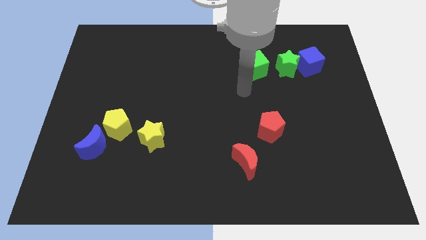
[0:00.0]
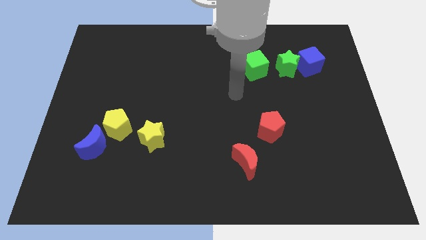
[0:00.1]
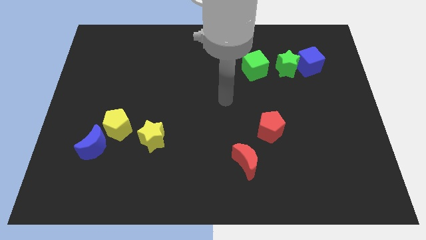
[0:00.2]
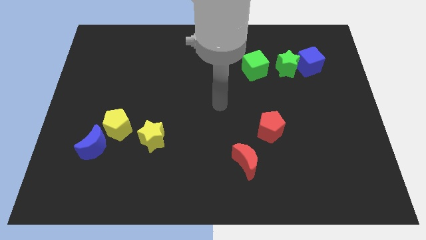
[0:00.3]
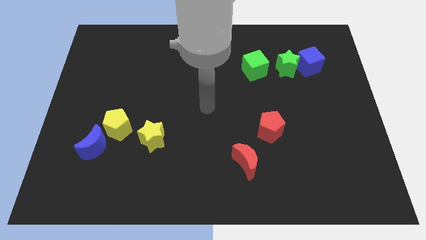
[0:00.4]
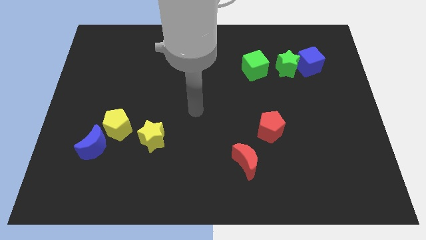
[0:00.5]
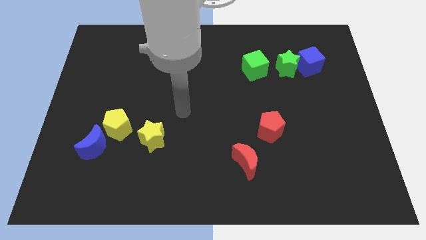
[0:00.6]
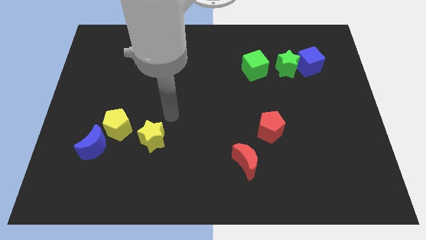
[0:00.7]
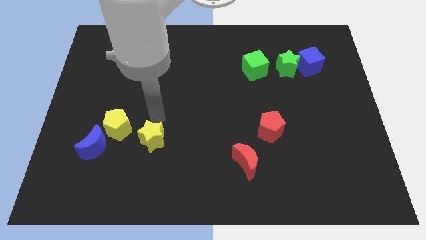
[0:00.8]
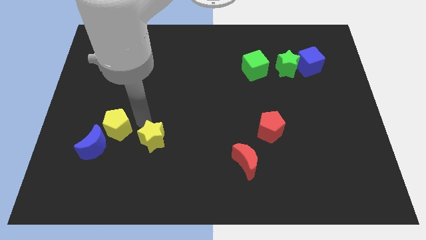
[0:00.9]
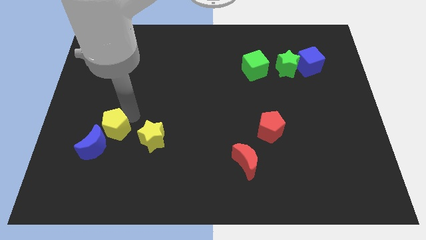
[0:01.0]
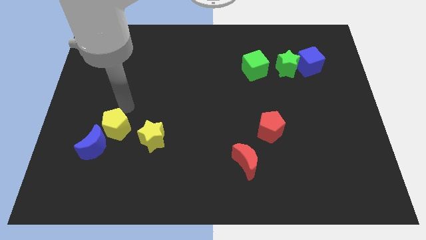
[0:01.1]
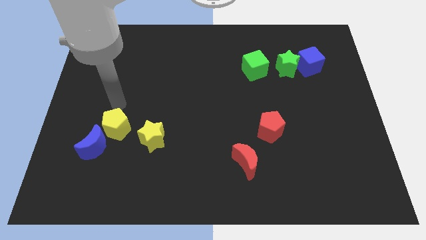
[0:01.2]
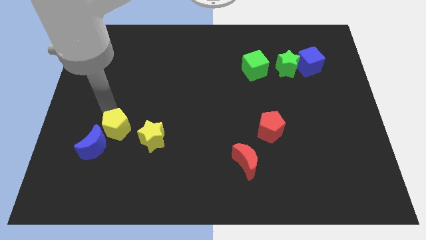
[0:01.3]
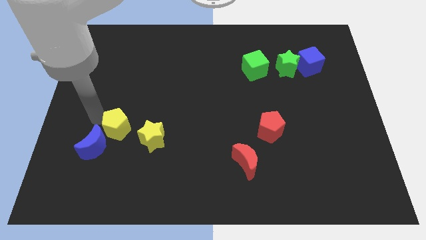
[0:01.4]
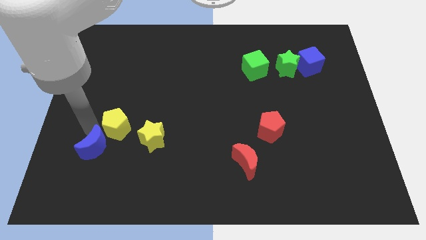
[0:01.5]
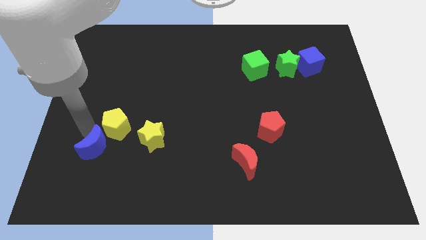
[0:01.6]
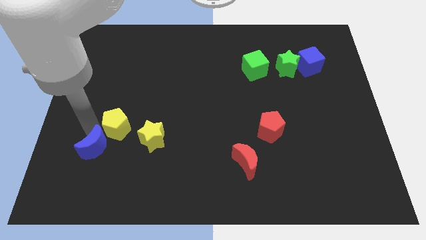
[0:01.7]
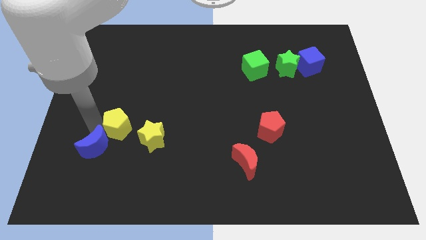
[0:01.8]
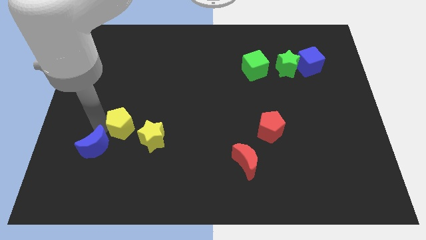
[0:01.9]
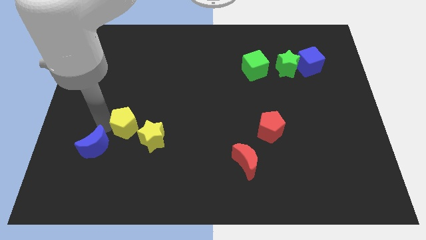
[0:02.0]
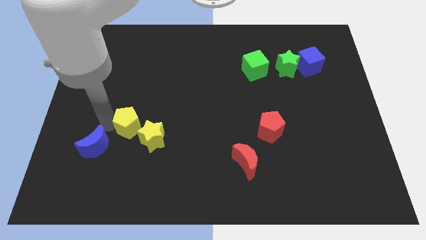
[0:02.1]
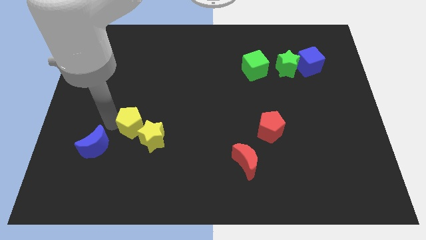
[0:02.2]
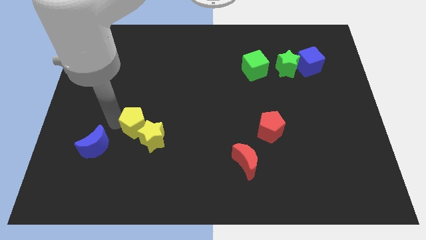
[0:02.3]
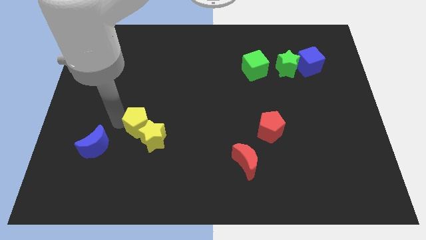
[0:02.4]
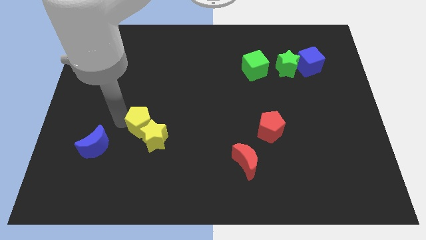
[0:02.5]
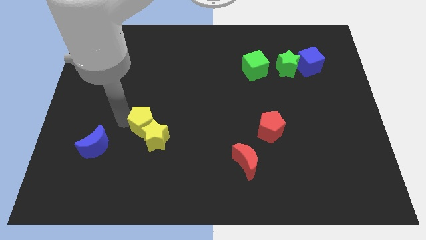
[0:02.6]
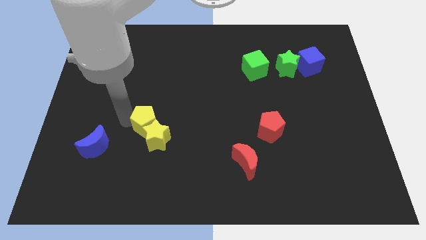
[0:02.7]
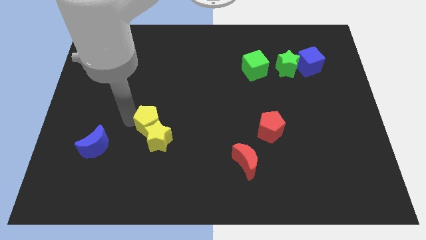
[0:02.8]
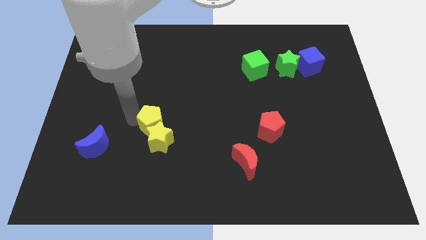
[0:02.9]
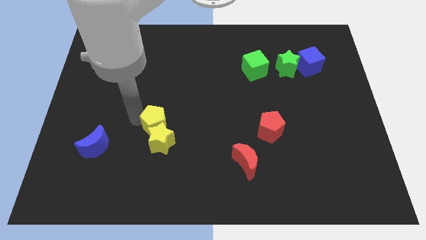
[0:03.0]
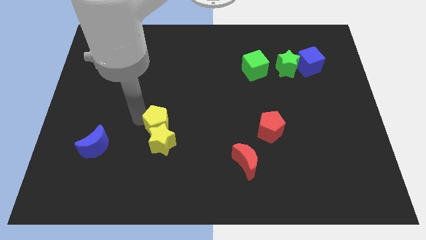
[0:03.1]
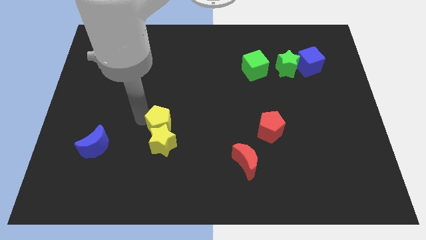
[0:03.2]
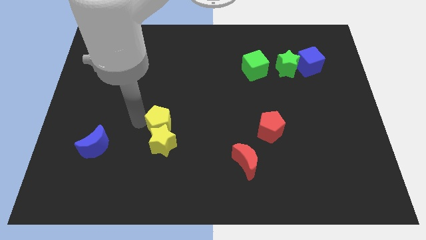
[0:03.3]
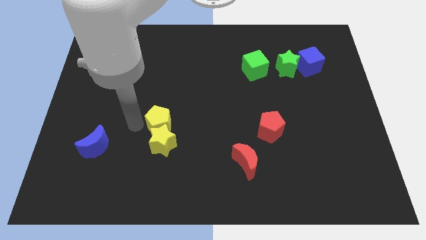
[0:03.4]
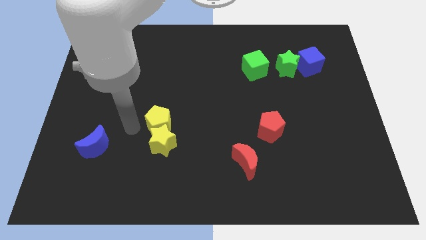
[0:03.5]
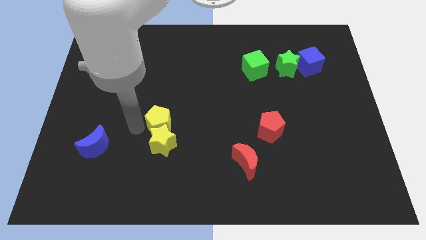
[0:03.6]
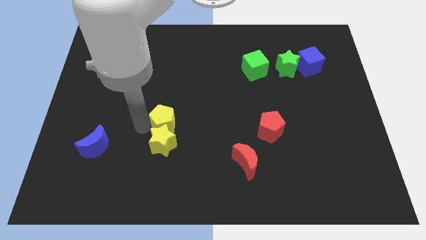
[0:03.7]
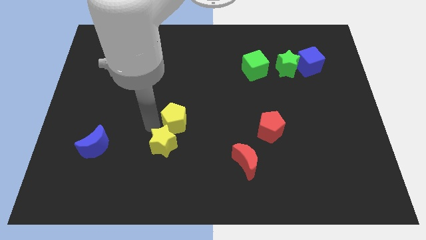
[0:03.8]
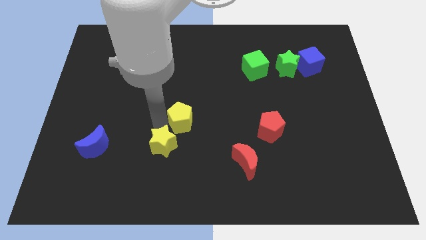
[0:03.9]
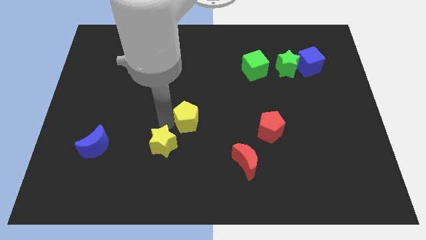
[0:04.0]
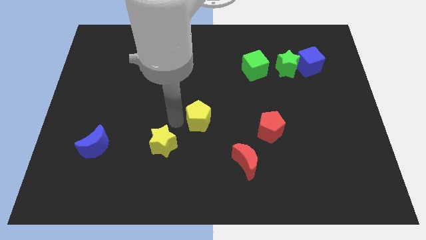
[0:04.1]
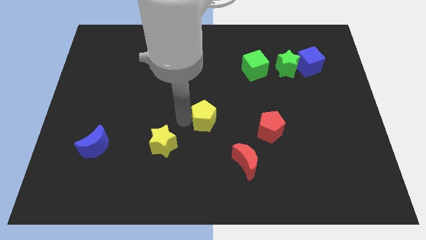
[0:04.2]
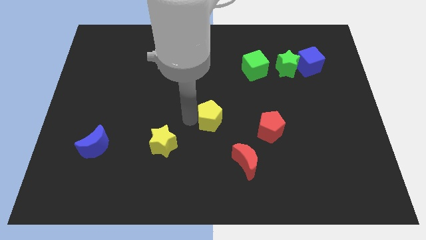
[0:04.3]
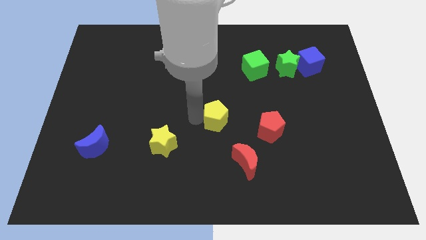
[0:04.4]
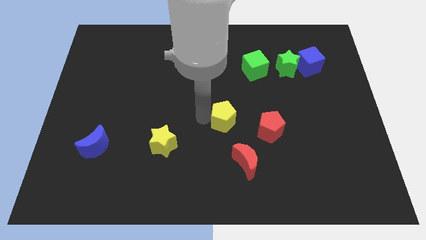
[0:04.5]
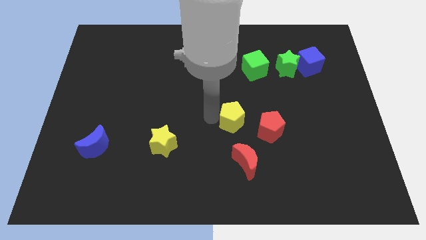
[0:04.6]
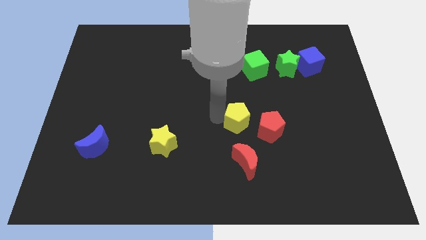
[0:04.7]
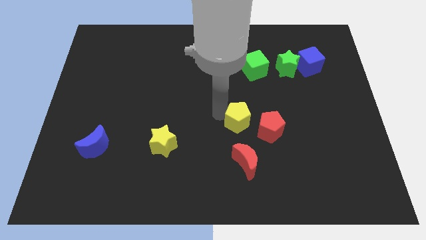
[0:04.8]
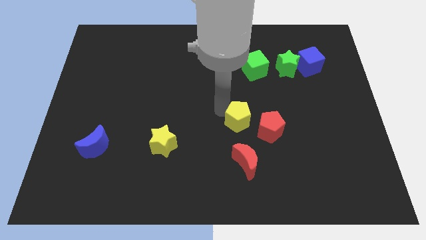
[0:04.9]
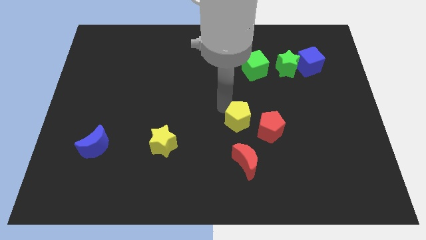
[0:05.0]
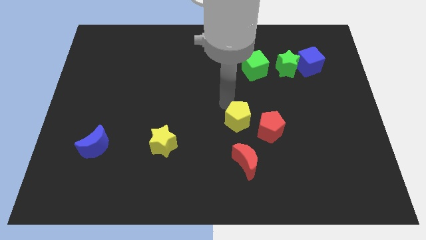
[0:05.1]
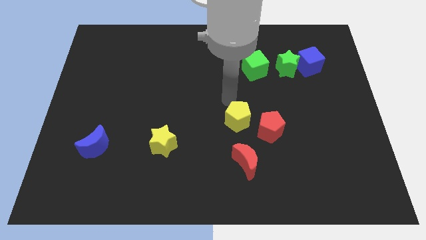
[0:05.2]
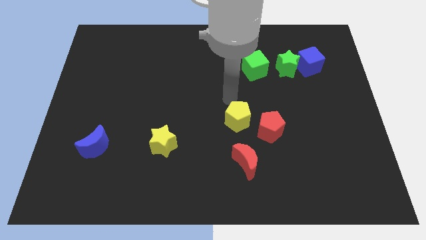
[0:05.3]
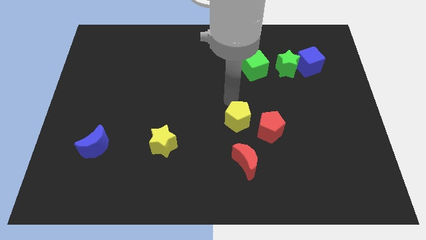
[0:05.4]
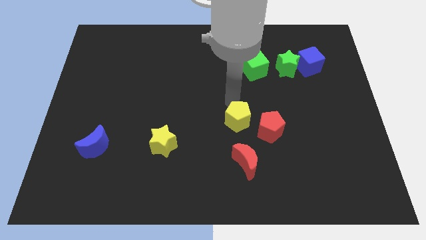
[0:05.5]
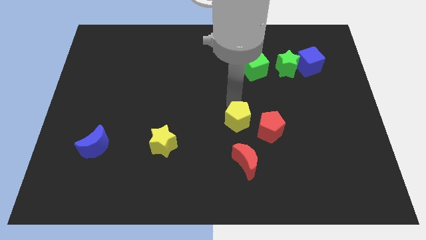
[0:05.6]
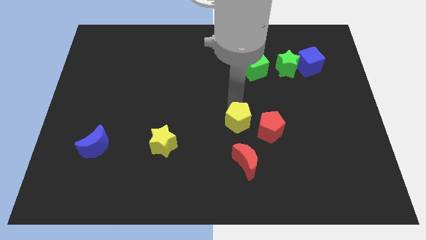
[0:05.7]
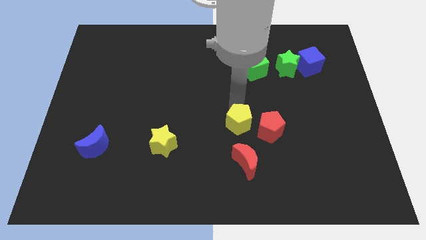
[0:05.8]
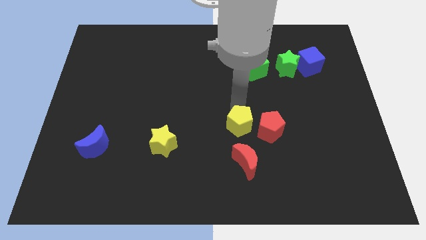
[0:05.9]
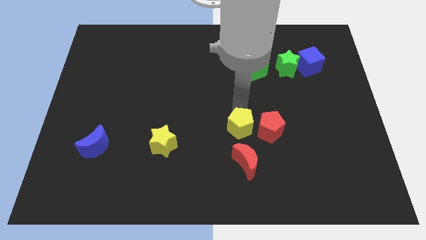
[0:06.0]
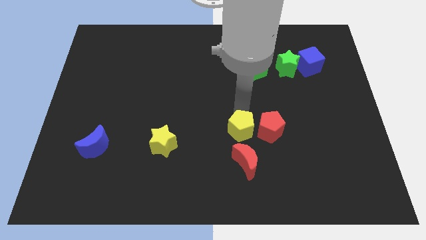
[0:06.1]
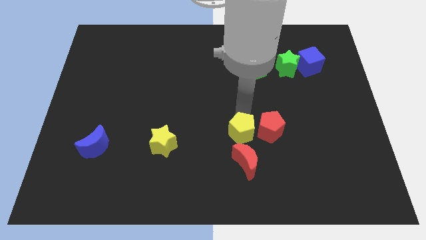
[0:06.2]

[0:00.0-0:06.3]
slide the yellow pentagon next to the red pentagon

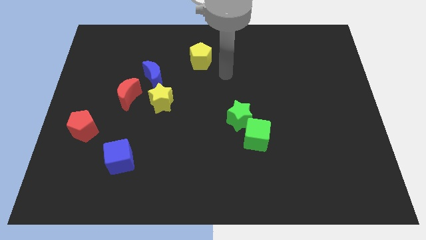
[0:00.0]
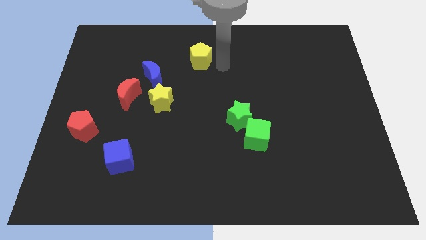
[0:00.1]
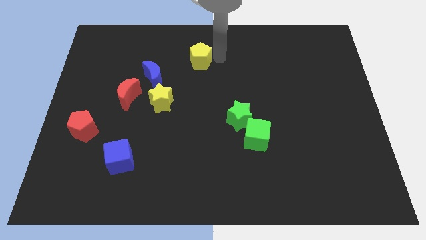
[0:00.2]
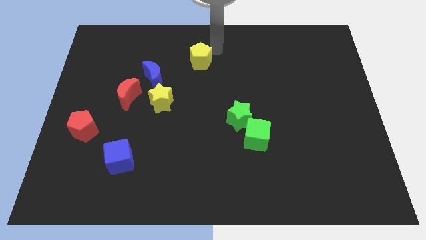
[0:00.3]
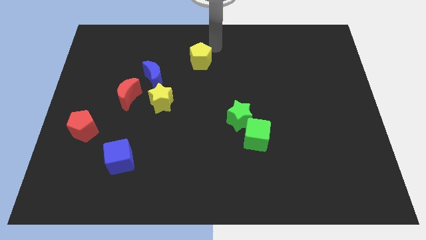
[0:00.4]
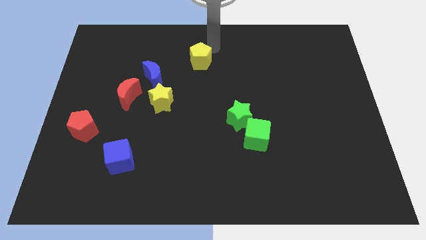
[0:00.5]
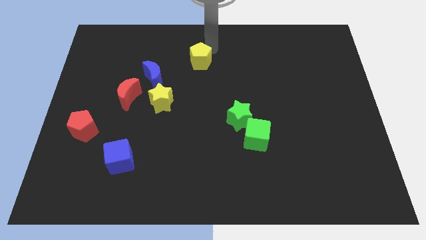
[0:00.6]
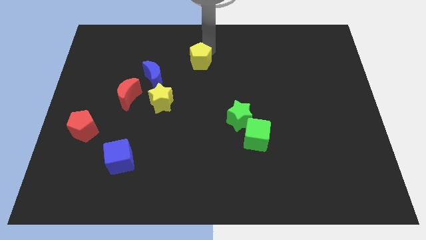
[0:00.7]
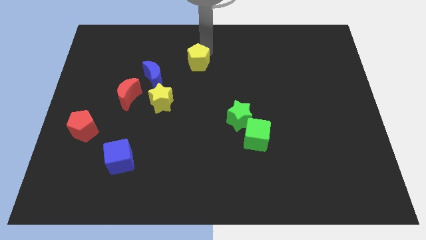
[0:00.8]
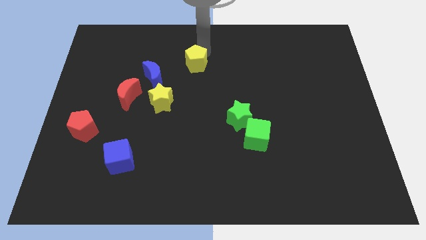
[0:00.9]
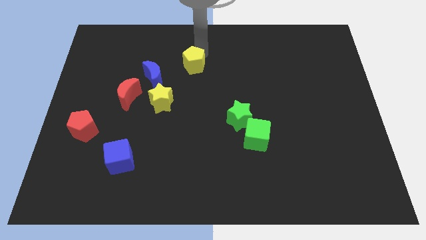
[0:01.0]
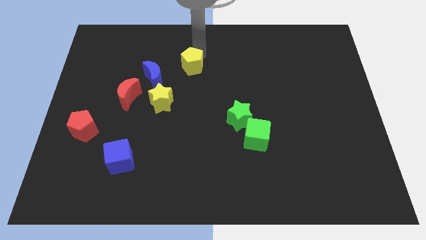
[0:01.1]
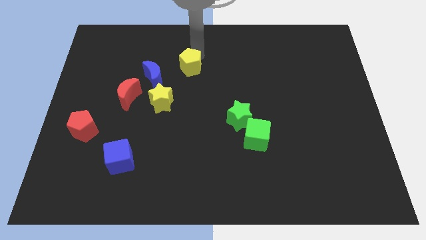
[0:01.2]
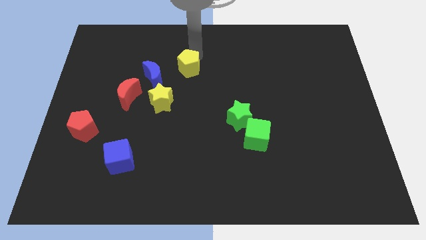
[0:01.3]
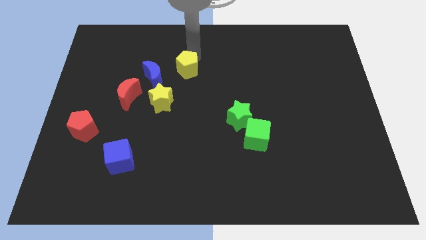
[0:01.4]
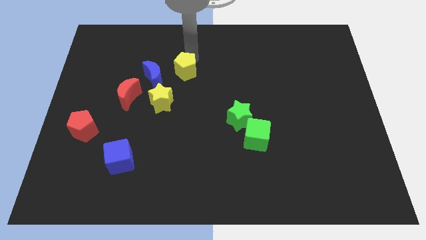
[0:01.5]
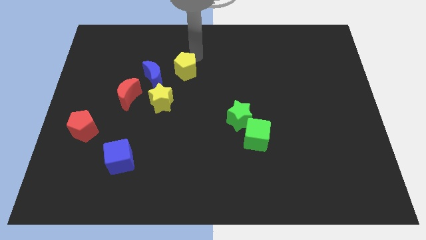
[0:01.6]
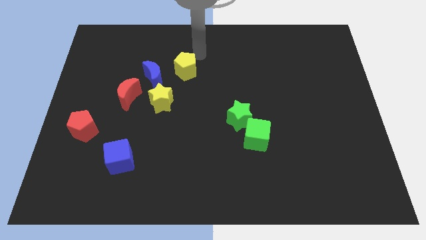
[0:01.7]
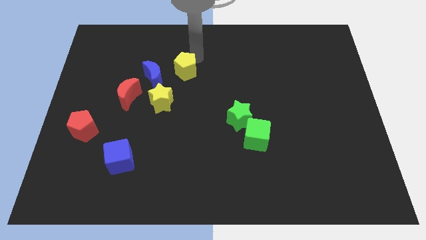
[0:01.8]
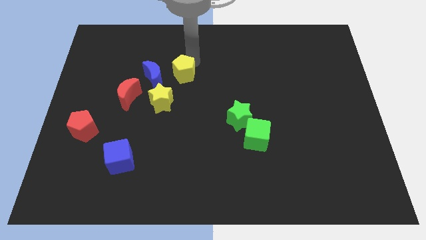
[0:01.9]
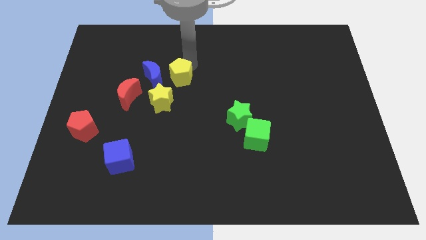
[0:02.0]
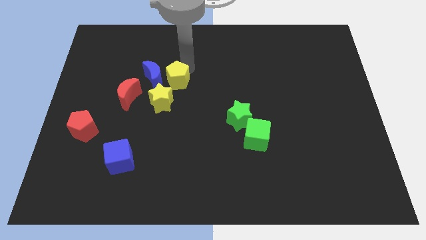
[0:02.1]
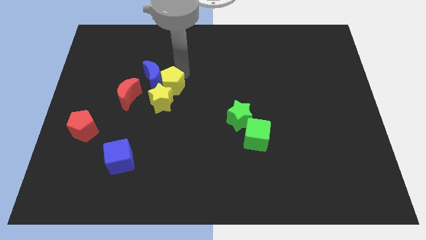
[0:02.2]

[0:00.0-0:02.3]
move the yellow pentagon close to the yellow star
